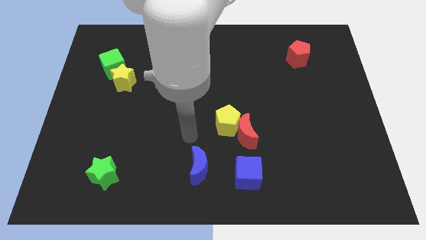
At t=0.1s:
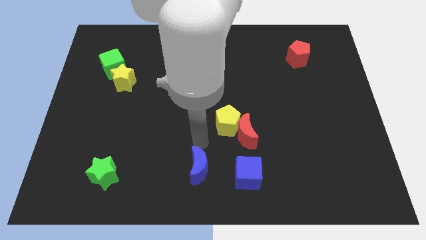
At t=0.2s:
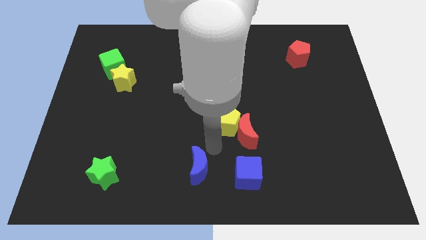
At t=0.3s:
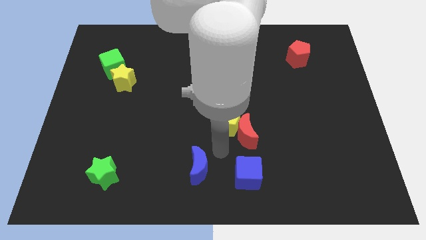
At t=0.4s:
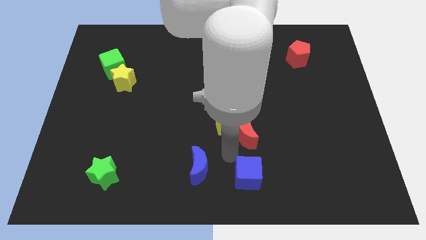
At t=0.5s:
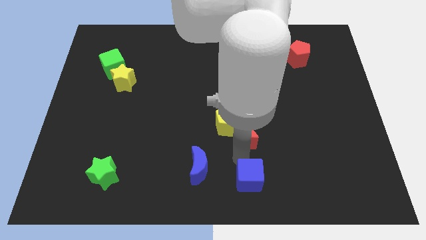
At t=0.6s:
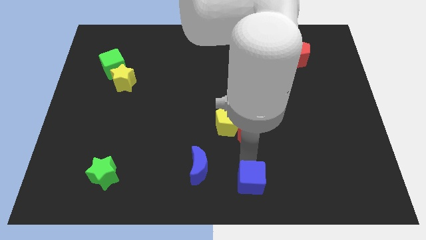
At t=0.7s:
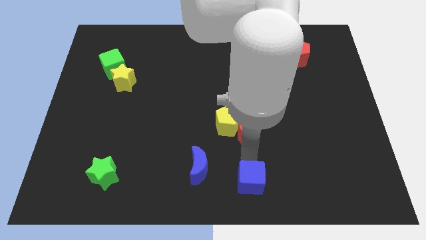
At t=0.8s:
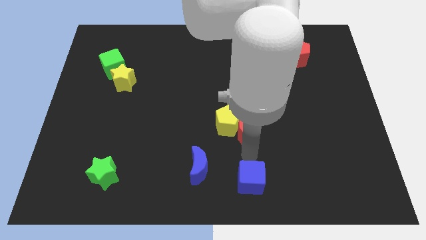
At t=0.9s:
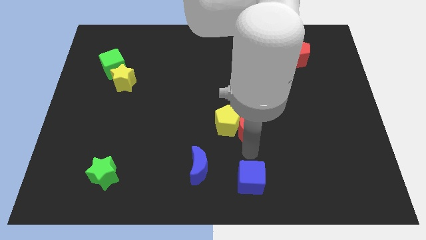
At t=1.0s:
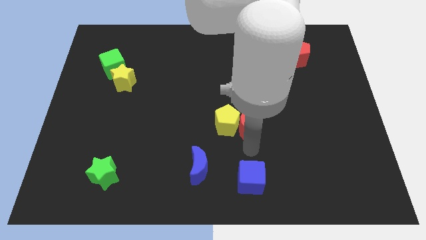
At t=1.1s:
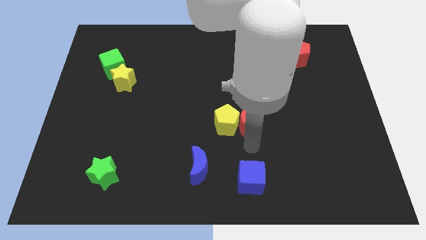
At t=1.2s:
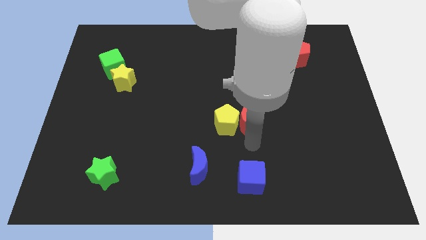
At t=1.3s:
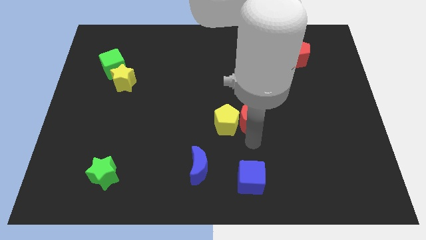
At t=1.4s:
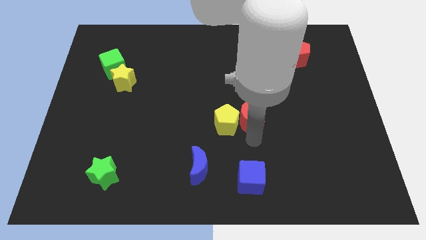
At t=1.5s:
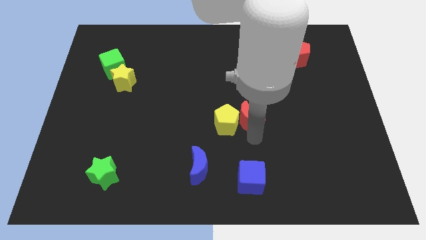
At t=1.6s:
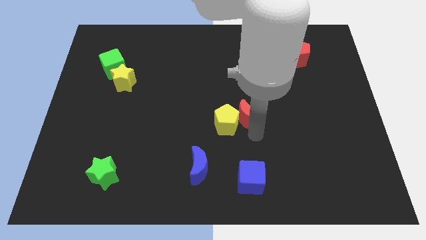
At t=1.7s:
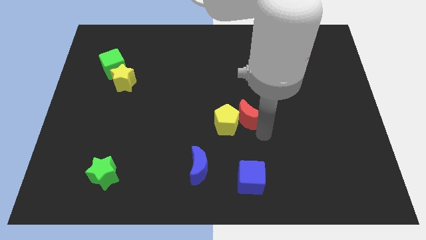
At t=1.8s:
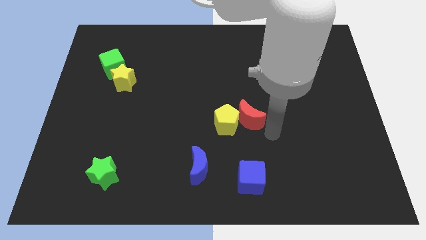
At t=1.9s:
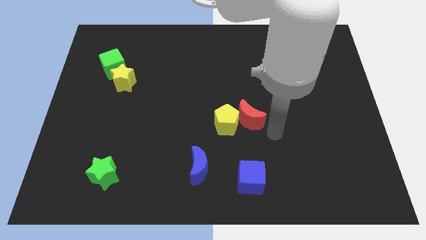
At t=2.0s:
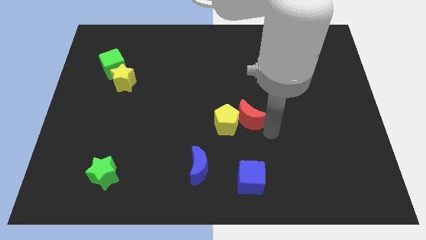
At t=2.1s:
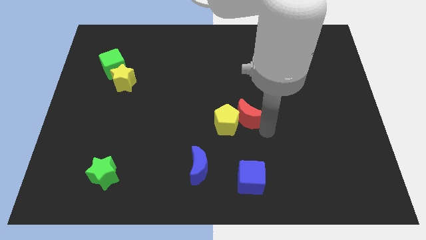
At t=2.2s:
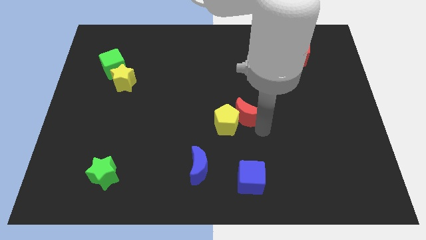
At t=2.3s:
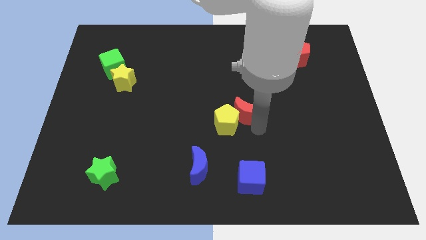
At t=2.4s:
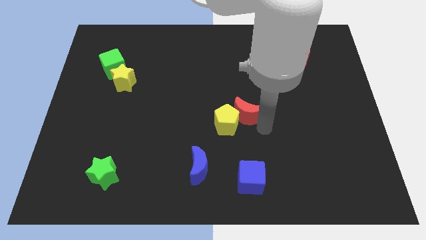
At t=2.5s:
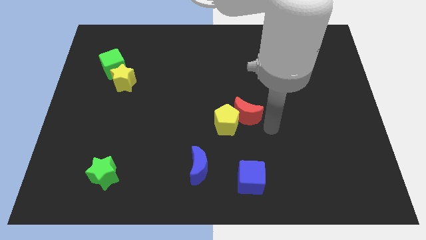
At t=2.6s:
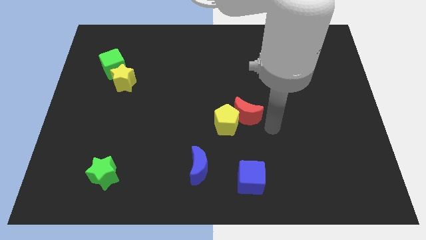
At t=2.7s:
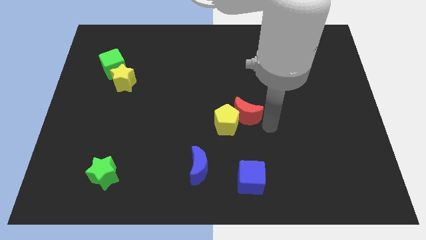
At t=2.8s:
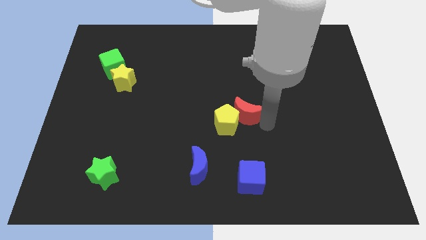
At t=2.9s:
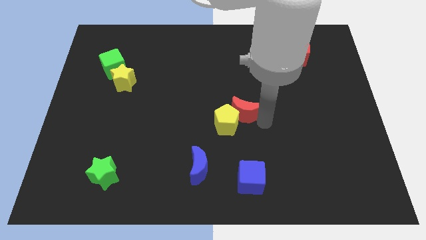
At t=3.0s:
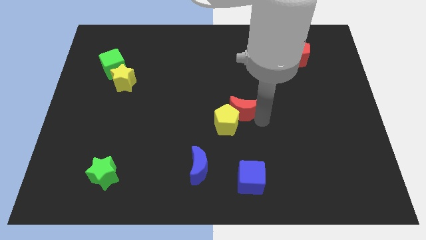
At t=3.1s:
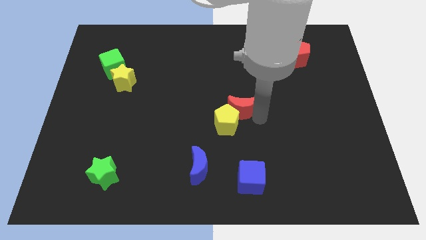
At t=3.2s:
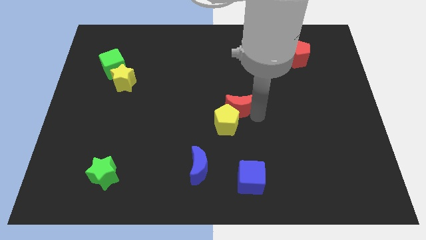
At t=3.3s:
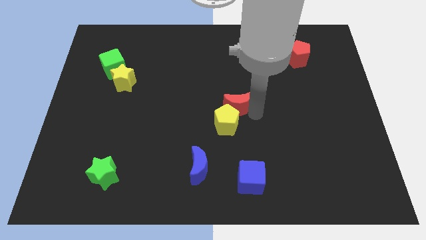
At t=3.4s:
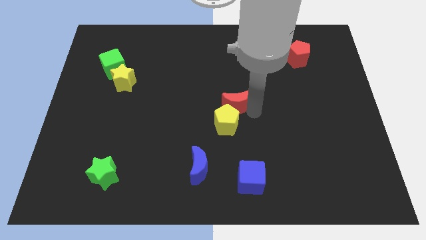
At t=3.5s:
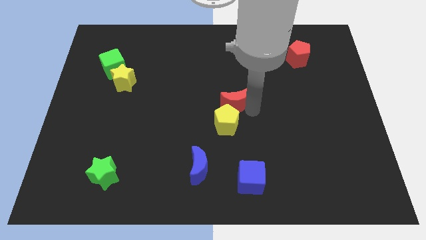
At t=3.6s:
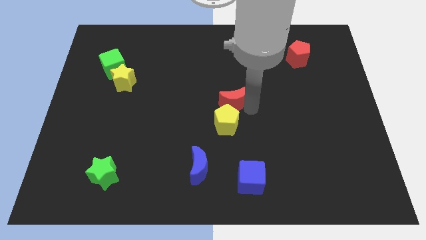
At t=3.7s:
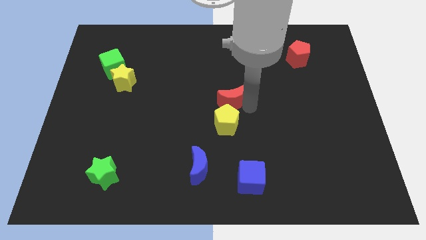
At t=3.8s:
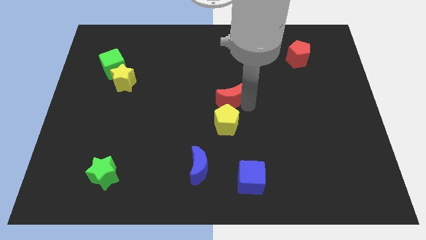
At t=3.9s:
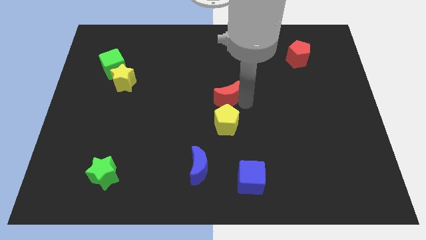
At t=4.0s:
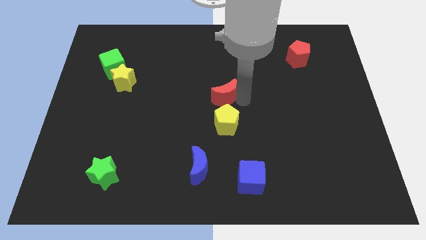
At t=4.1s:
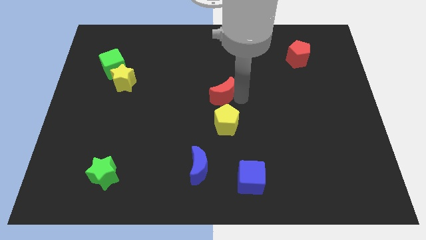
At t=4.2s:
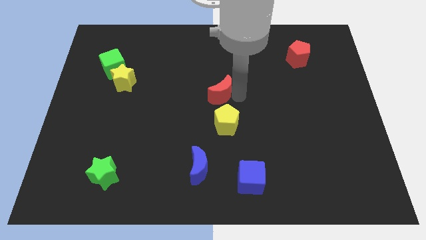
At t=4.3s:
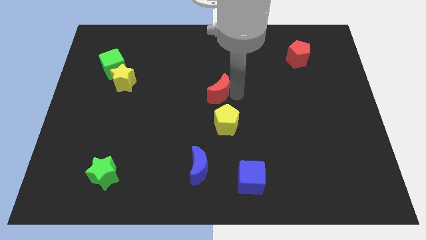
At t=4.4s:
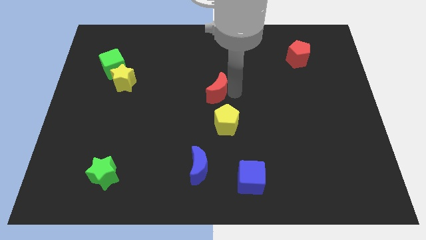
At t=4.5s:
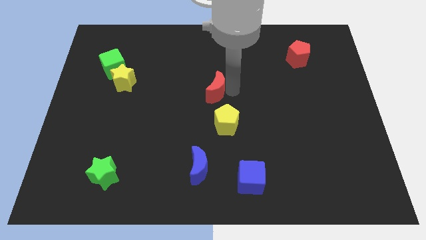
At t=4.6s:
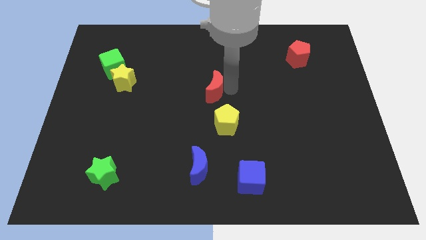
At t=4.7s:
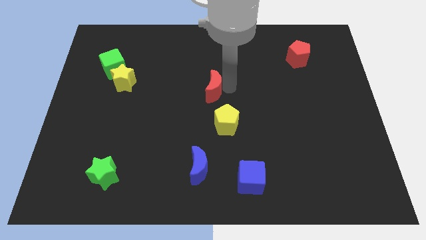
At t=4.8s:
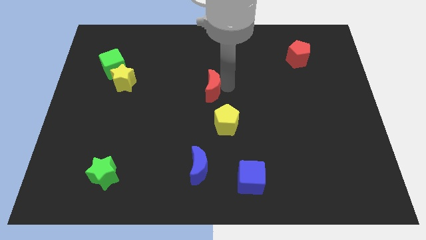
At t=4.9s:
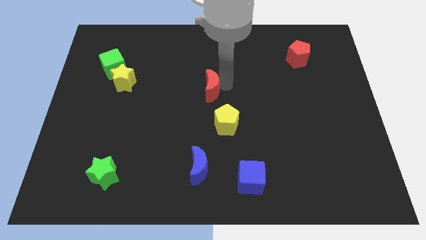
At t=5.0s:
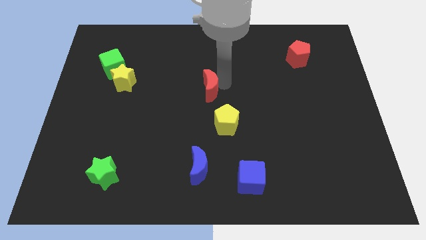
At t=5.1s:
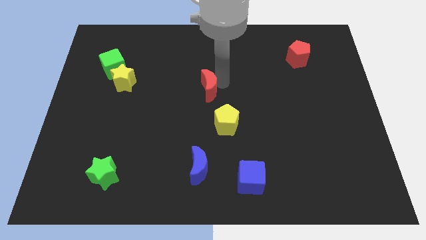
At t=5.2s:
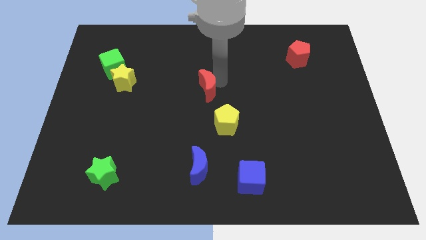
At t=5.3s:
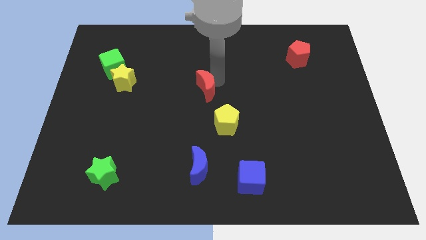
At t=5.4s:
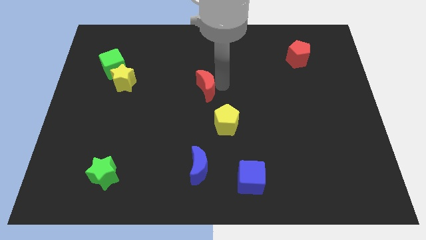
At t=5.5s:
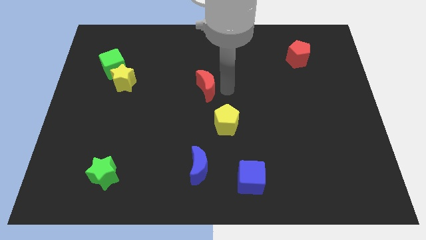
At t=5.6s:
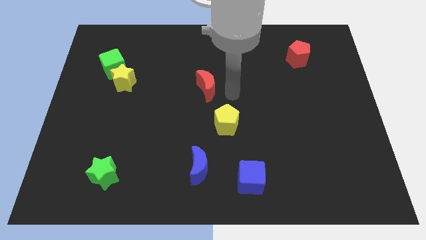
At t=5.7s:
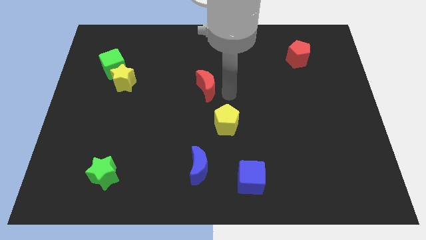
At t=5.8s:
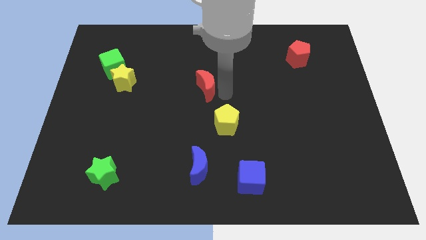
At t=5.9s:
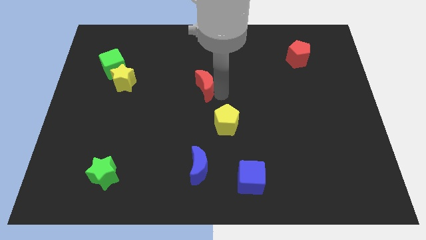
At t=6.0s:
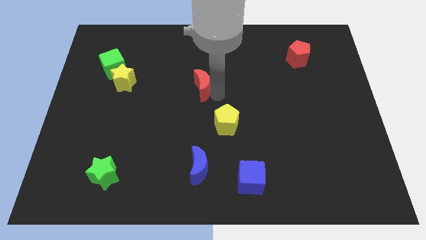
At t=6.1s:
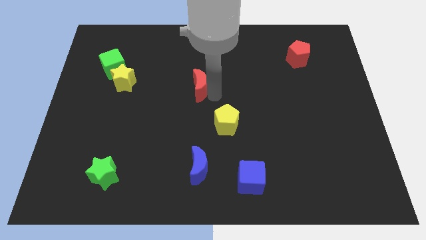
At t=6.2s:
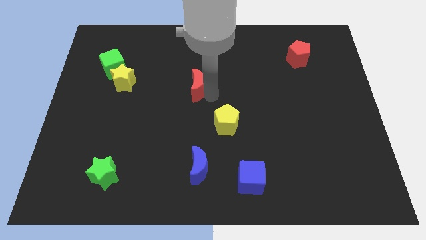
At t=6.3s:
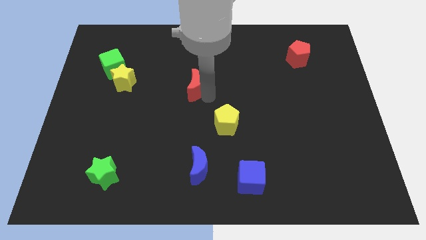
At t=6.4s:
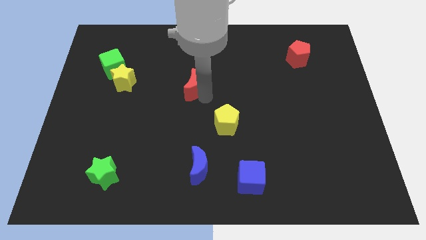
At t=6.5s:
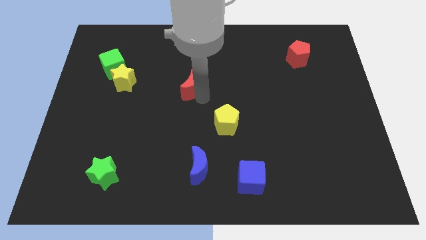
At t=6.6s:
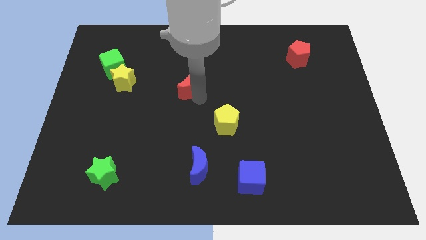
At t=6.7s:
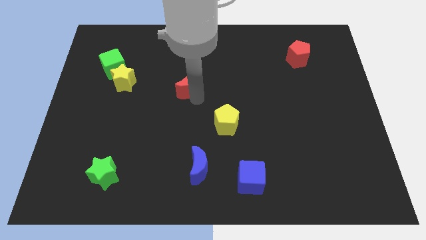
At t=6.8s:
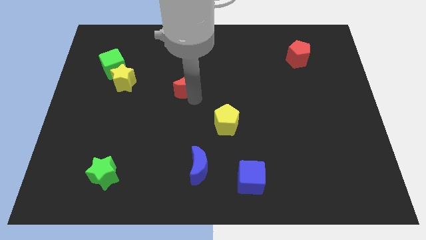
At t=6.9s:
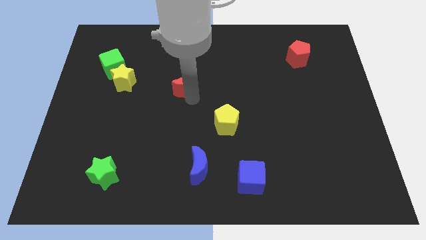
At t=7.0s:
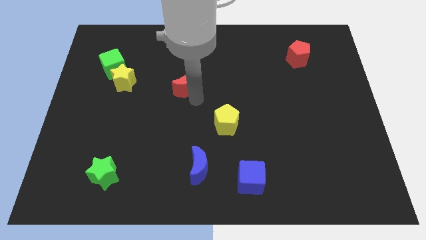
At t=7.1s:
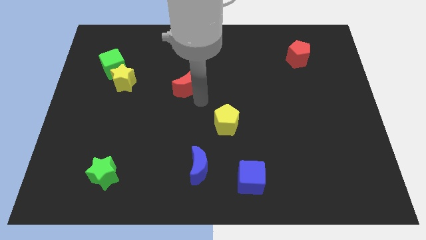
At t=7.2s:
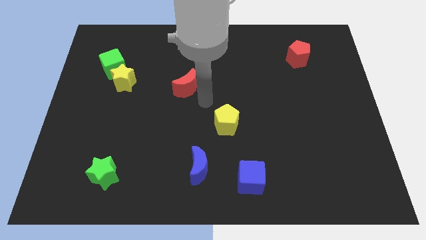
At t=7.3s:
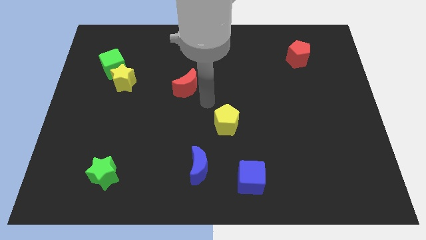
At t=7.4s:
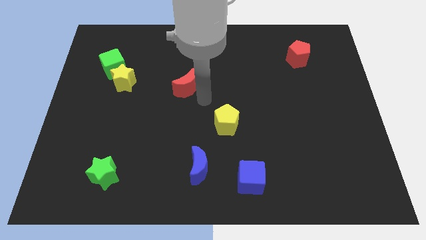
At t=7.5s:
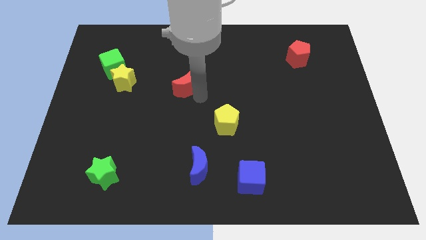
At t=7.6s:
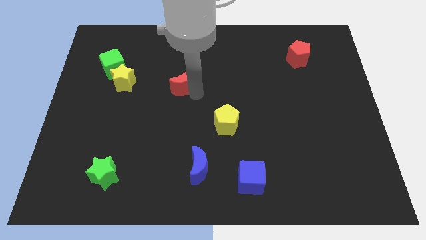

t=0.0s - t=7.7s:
move the red moon diagonally up and left

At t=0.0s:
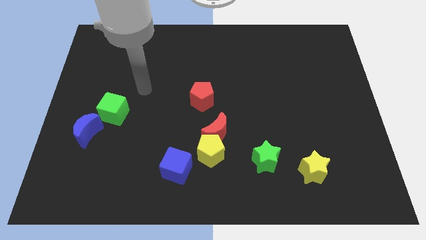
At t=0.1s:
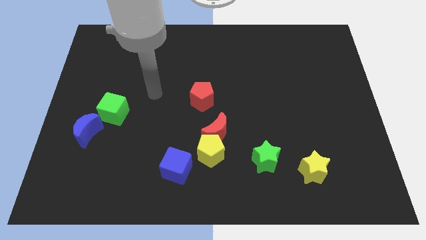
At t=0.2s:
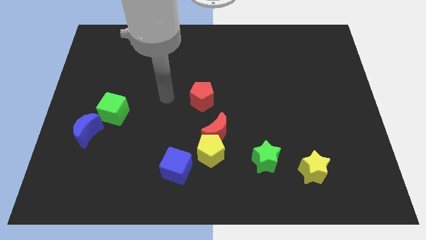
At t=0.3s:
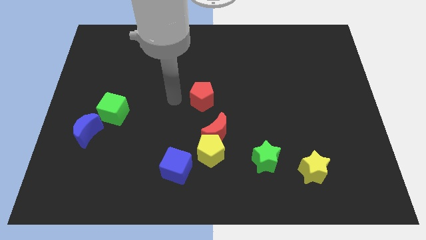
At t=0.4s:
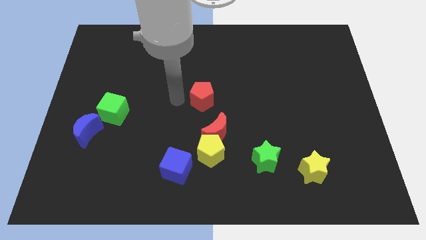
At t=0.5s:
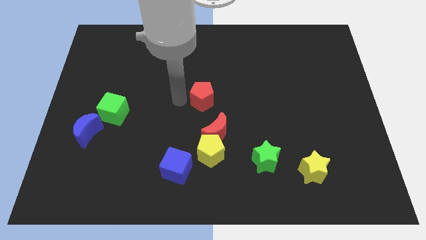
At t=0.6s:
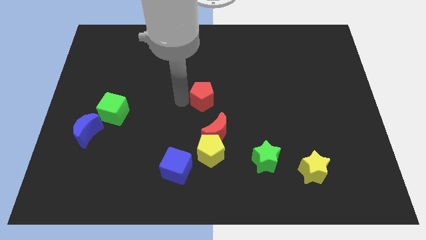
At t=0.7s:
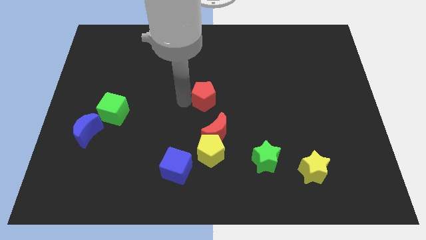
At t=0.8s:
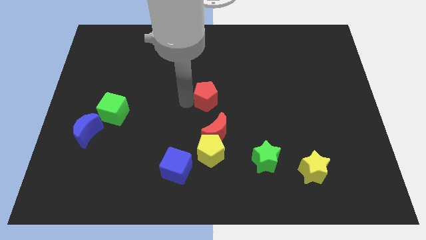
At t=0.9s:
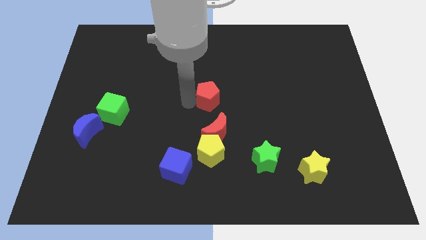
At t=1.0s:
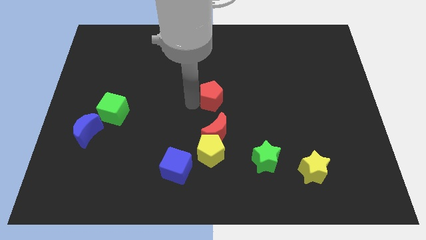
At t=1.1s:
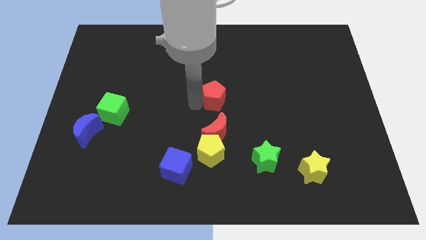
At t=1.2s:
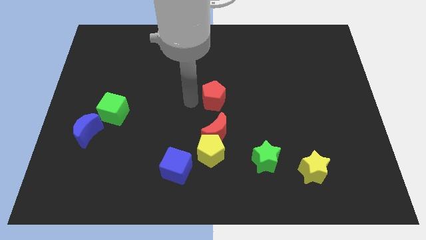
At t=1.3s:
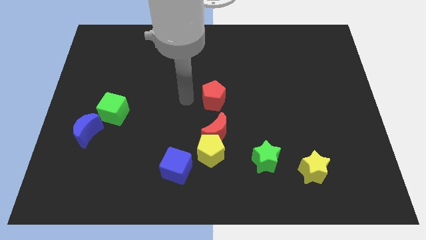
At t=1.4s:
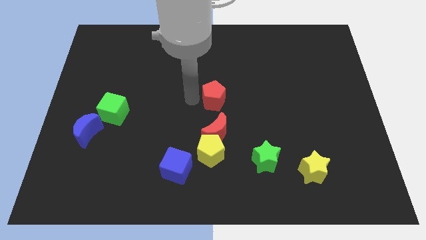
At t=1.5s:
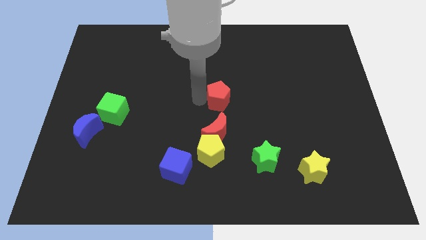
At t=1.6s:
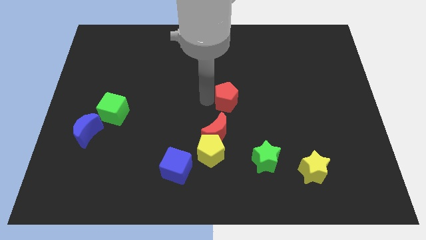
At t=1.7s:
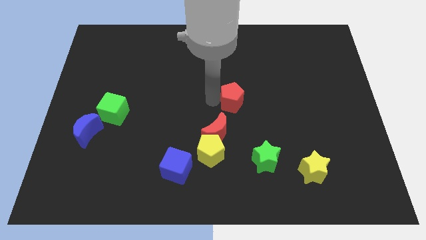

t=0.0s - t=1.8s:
slide the red pentagon to the right somewhat
